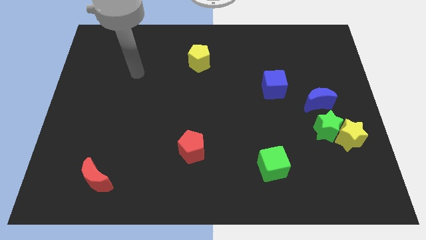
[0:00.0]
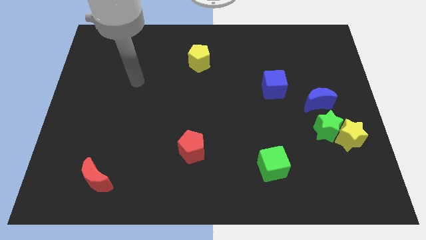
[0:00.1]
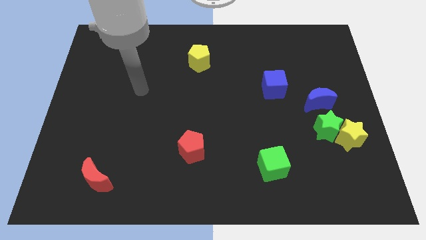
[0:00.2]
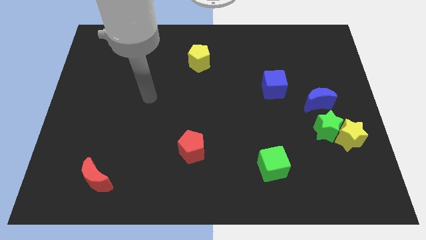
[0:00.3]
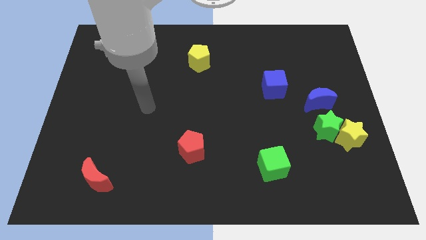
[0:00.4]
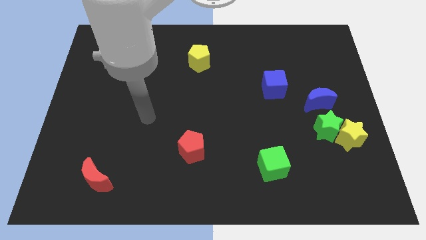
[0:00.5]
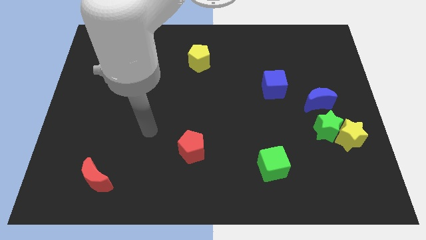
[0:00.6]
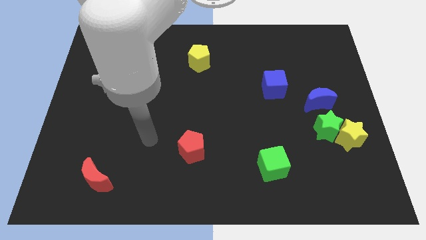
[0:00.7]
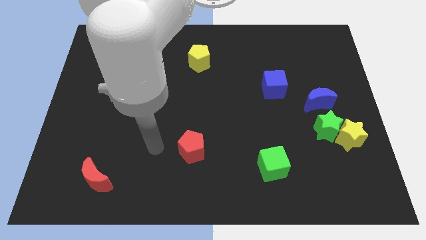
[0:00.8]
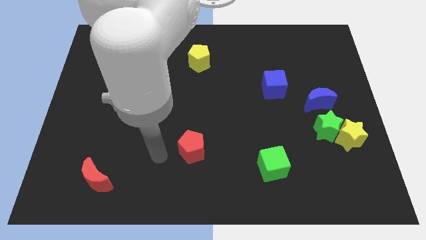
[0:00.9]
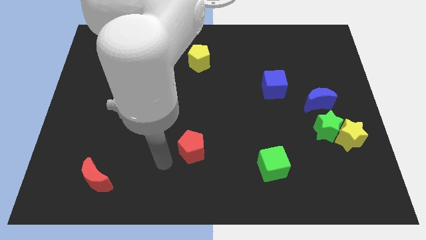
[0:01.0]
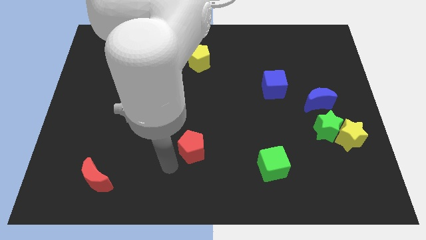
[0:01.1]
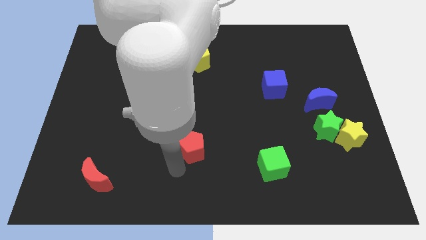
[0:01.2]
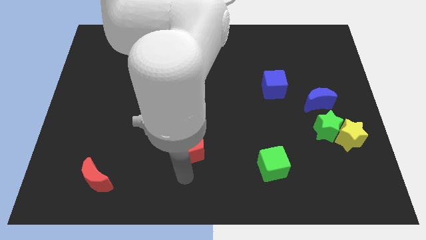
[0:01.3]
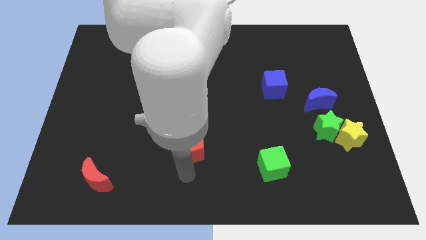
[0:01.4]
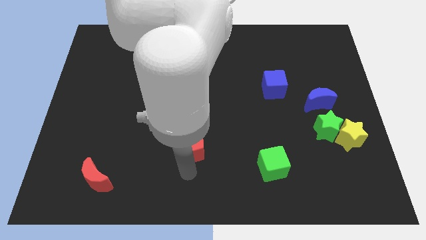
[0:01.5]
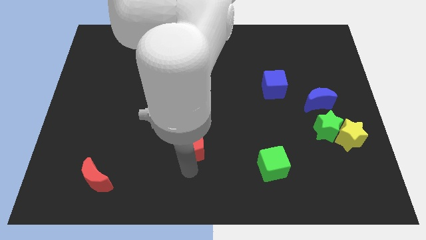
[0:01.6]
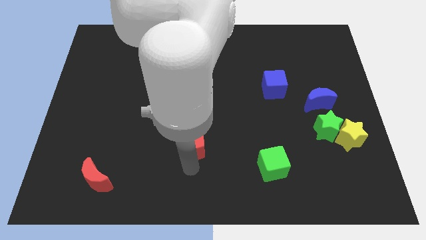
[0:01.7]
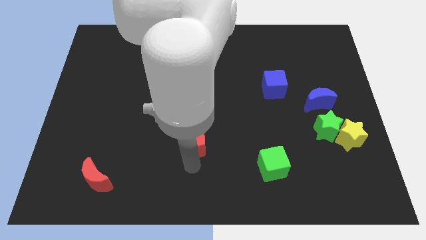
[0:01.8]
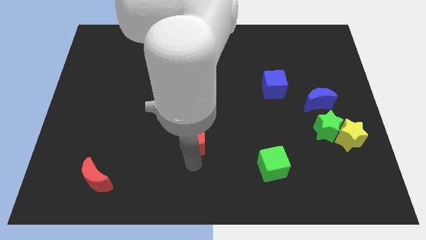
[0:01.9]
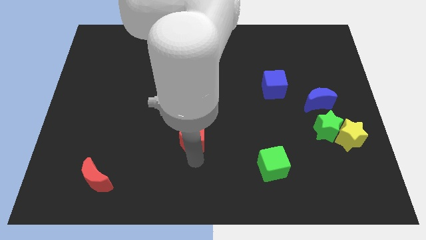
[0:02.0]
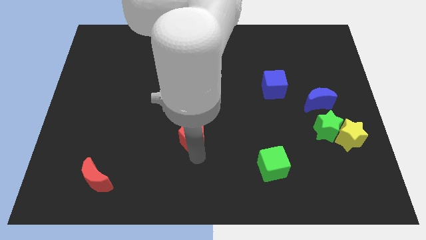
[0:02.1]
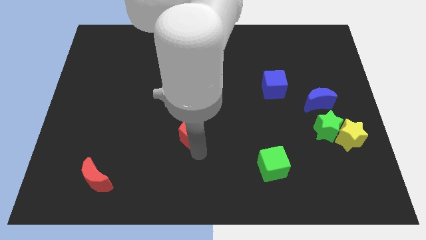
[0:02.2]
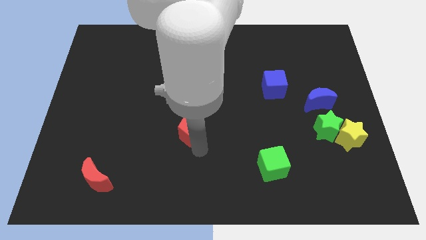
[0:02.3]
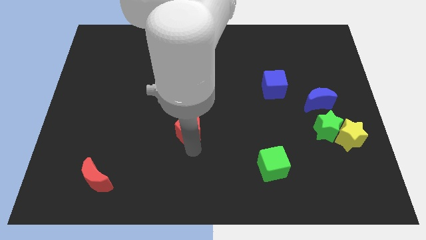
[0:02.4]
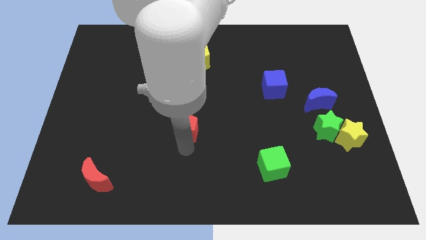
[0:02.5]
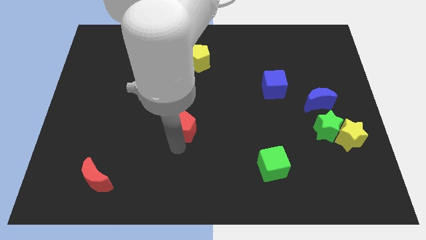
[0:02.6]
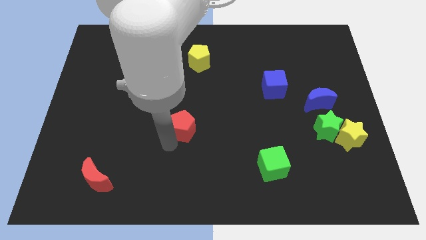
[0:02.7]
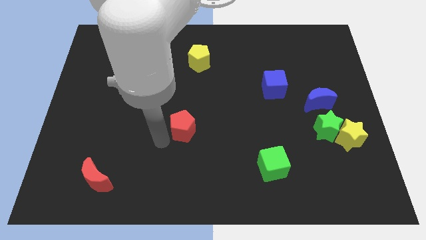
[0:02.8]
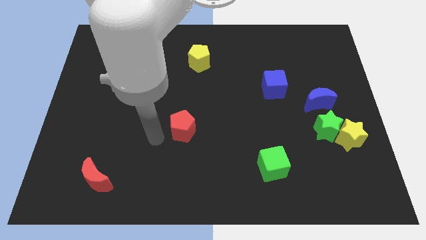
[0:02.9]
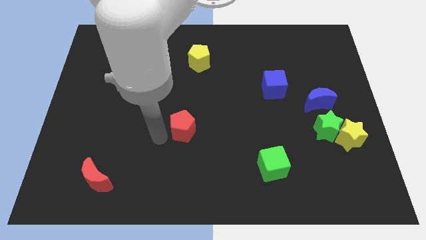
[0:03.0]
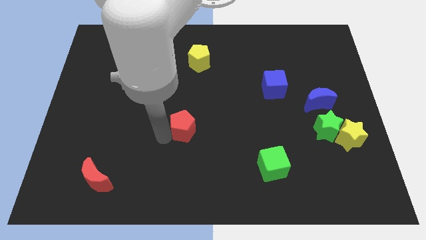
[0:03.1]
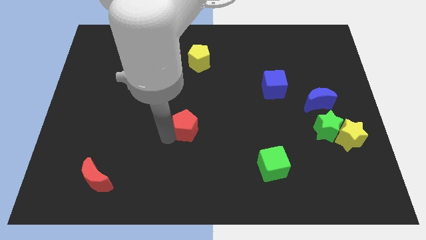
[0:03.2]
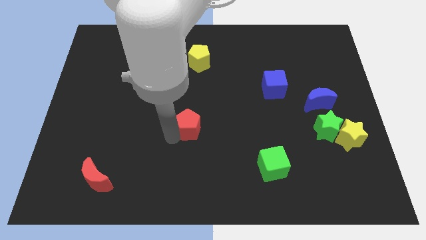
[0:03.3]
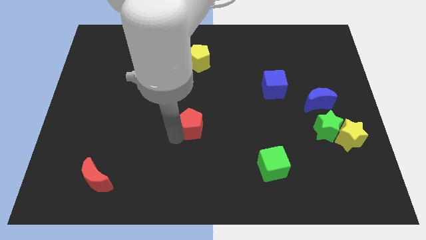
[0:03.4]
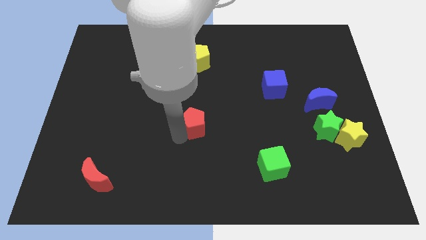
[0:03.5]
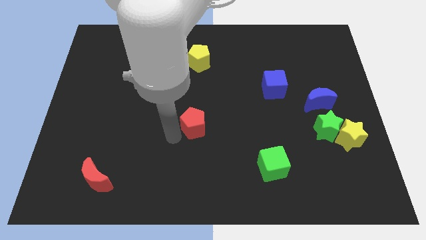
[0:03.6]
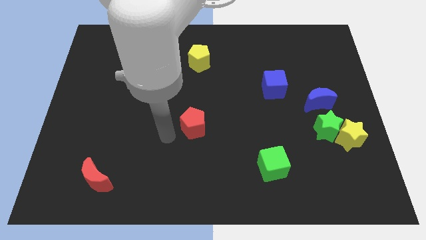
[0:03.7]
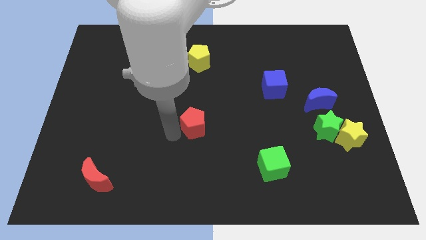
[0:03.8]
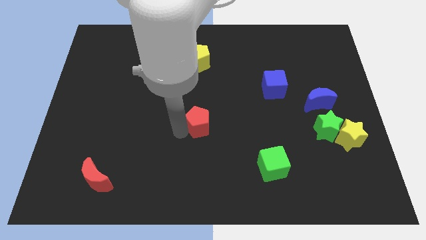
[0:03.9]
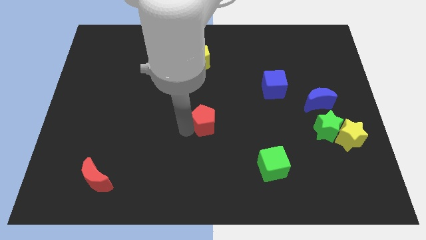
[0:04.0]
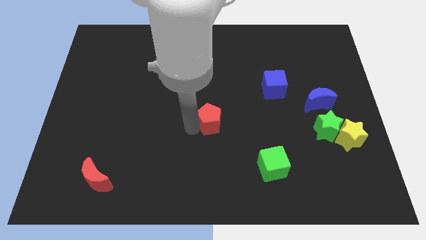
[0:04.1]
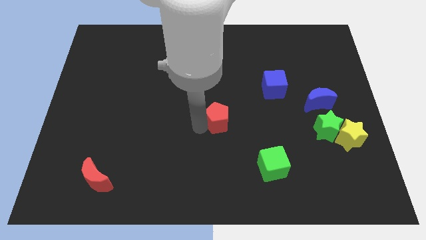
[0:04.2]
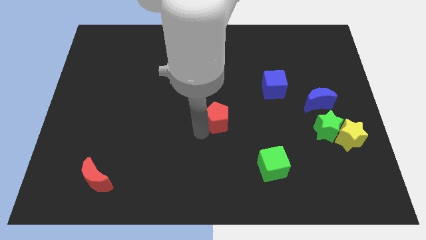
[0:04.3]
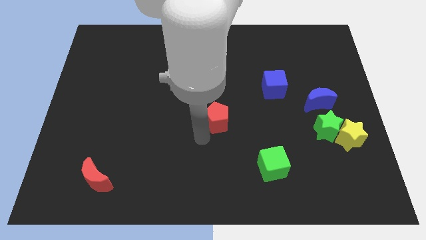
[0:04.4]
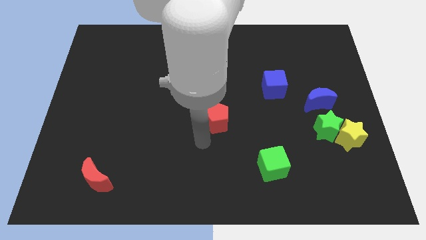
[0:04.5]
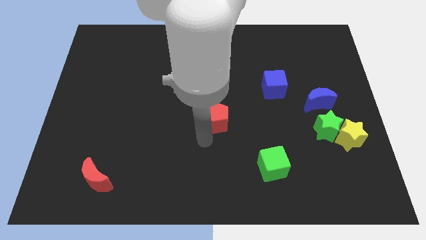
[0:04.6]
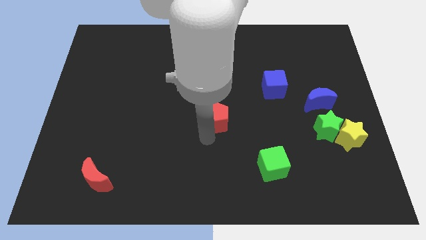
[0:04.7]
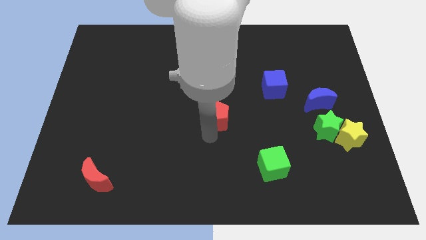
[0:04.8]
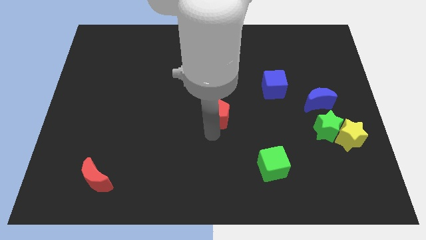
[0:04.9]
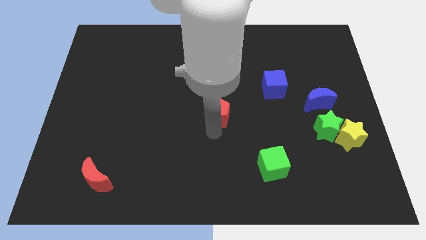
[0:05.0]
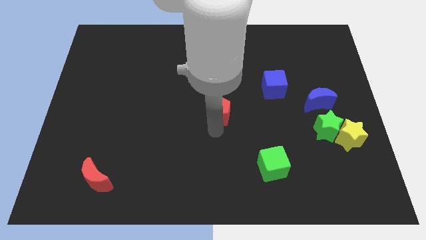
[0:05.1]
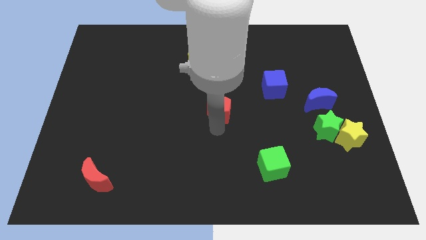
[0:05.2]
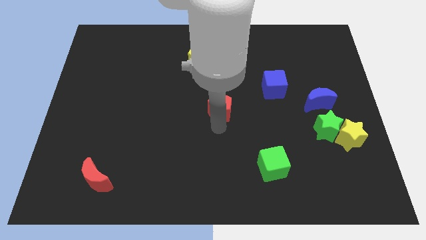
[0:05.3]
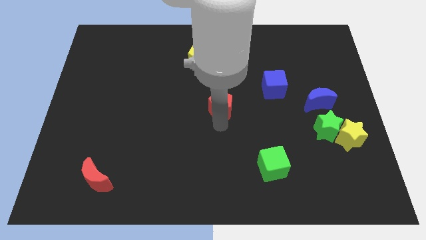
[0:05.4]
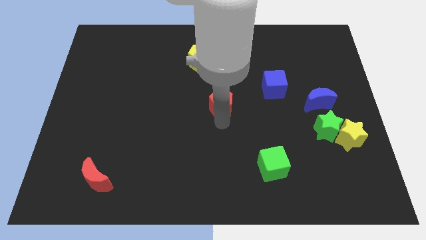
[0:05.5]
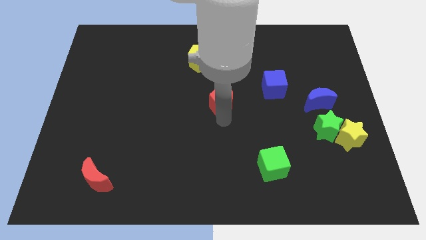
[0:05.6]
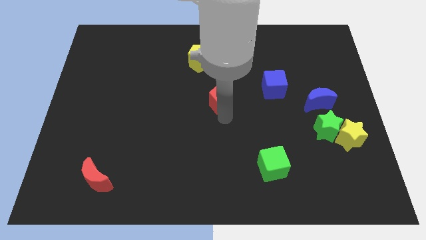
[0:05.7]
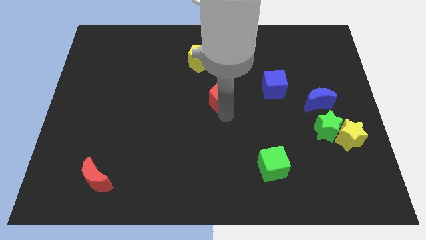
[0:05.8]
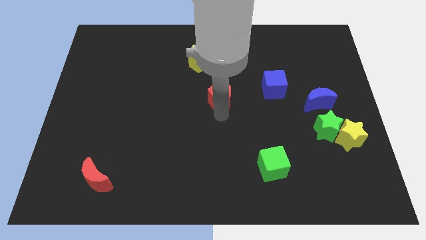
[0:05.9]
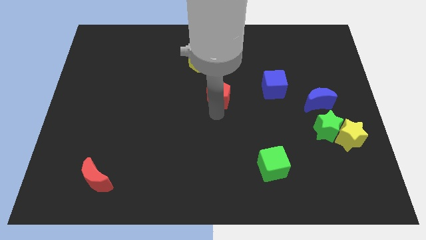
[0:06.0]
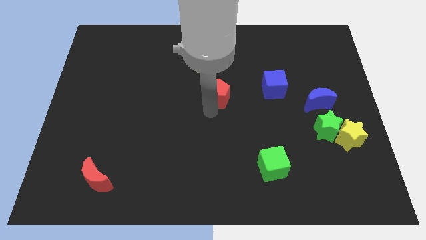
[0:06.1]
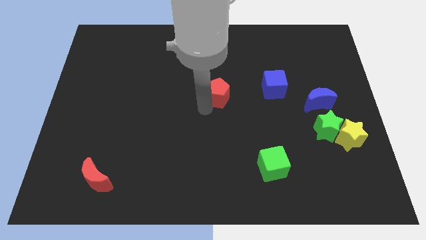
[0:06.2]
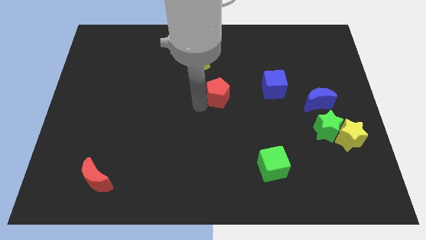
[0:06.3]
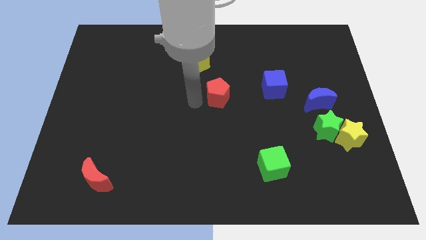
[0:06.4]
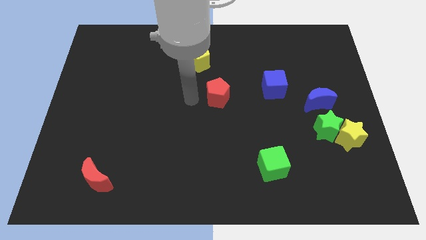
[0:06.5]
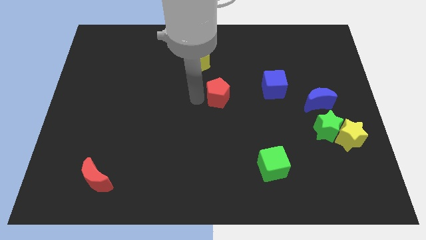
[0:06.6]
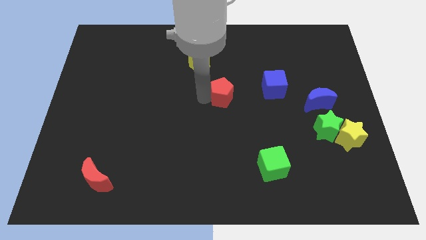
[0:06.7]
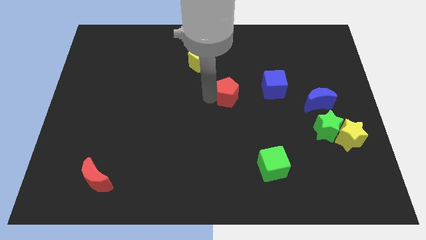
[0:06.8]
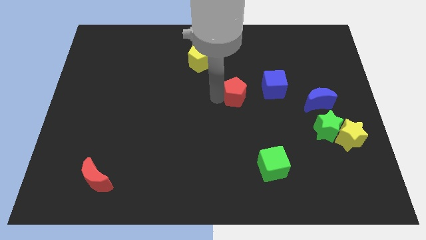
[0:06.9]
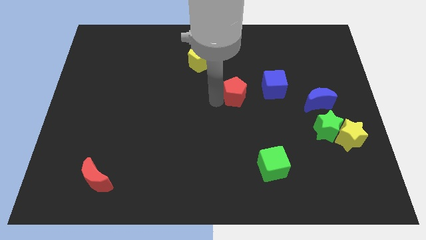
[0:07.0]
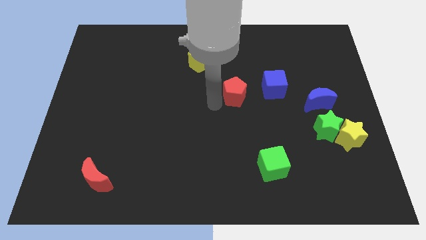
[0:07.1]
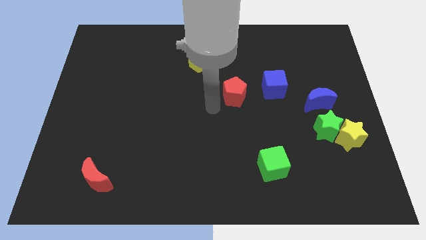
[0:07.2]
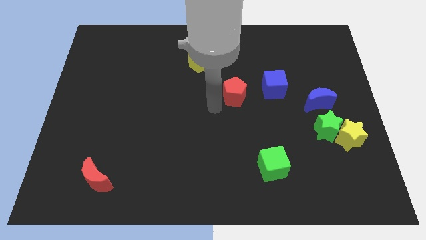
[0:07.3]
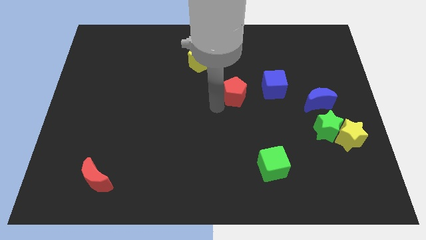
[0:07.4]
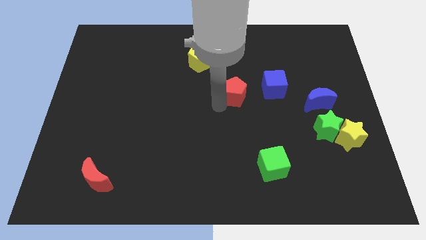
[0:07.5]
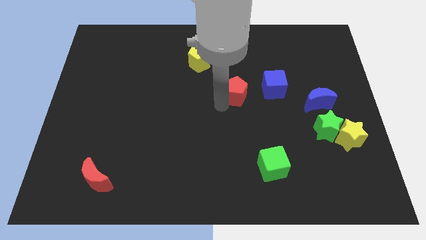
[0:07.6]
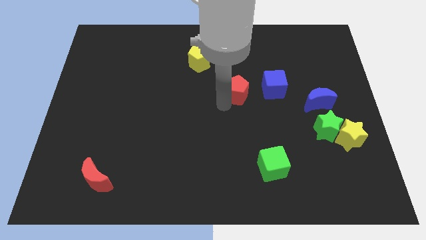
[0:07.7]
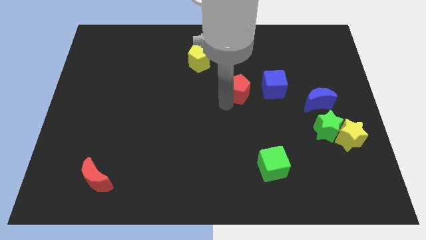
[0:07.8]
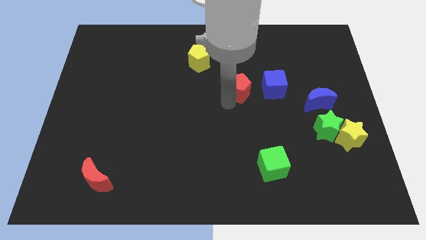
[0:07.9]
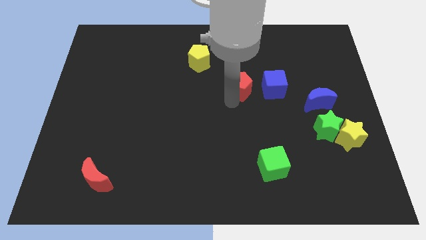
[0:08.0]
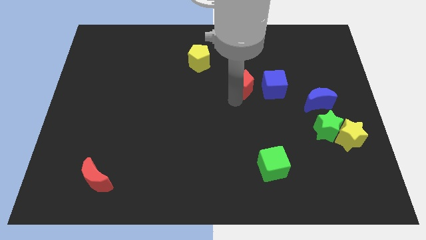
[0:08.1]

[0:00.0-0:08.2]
push the red pentagon diagonally up and to the right
